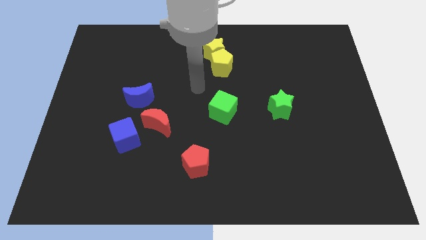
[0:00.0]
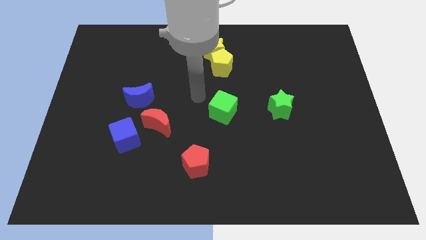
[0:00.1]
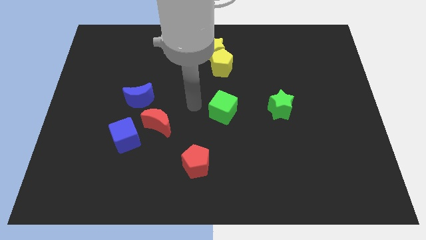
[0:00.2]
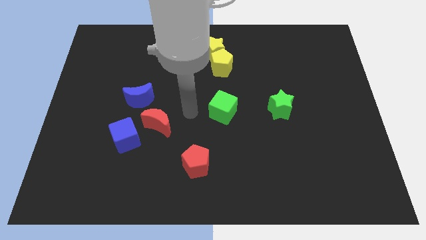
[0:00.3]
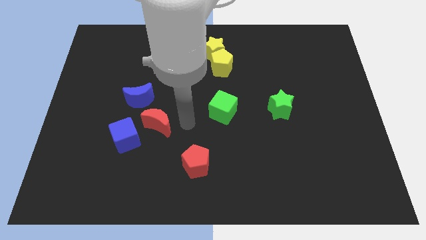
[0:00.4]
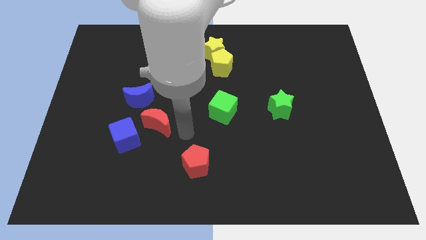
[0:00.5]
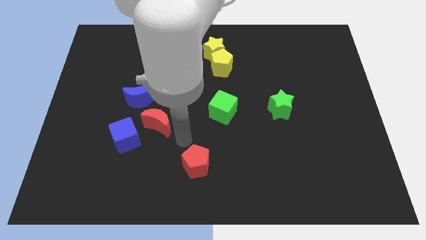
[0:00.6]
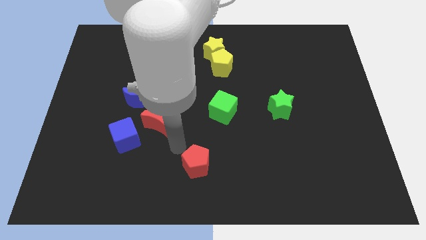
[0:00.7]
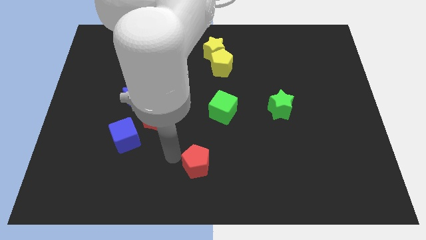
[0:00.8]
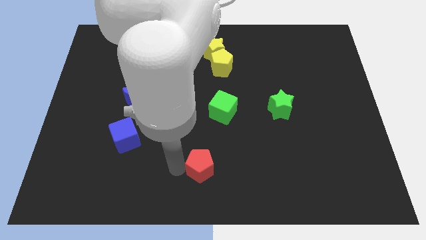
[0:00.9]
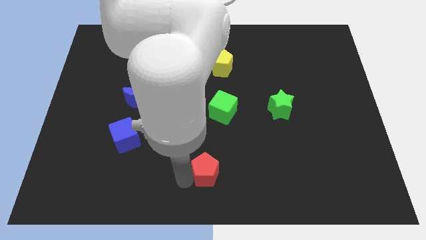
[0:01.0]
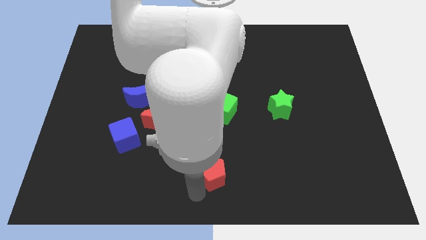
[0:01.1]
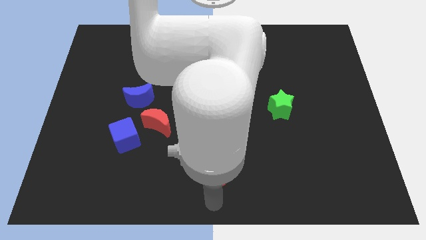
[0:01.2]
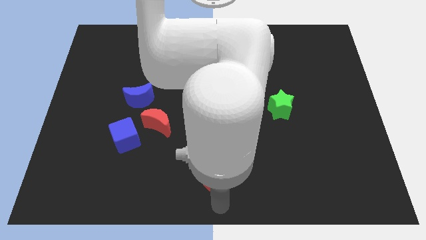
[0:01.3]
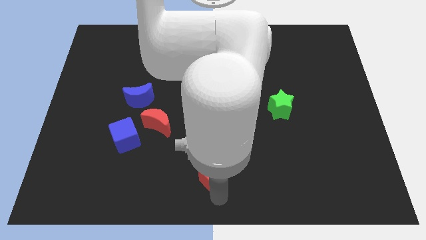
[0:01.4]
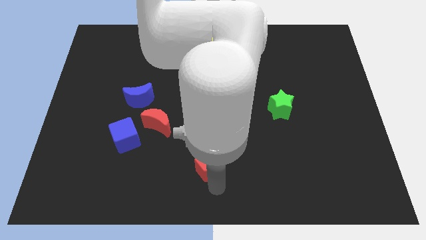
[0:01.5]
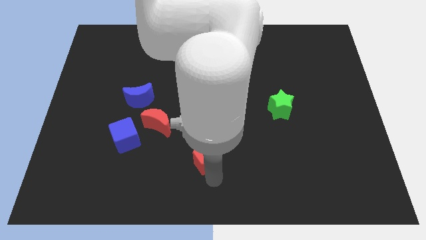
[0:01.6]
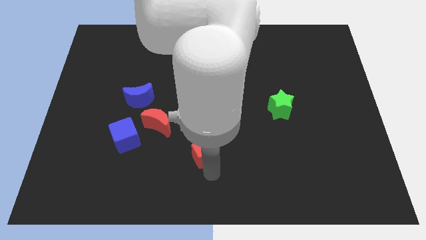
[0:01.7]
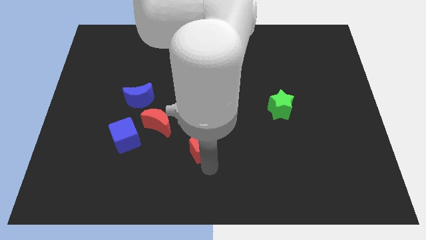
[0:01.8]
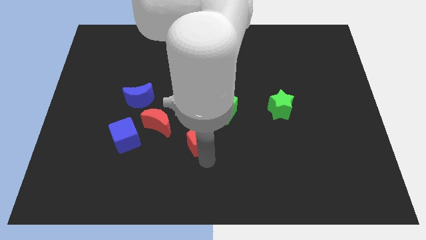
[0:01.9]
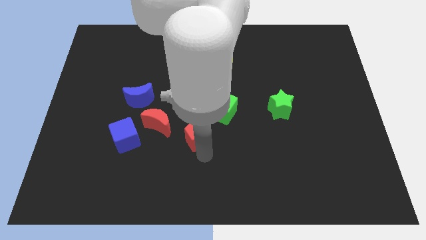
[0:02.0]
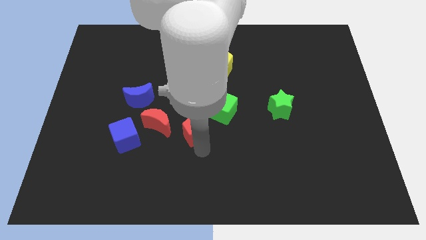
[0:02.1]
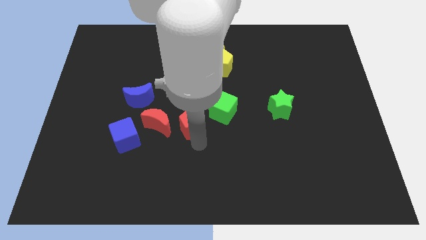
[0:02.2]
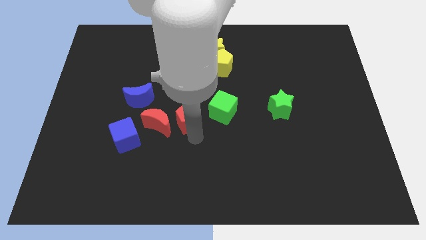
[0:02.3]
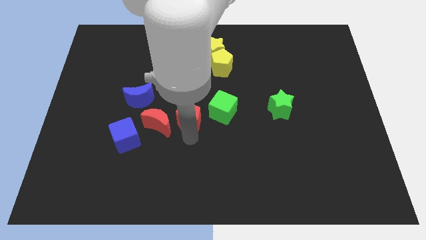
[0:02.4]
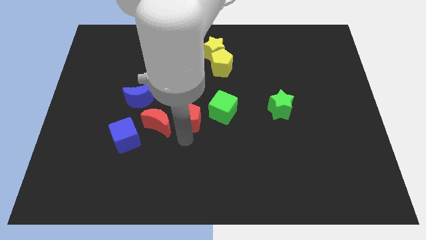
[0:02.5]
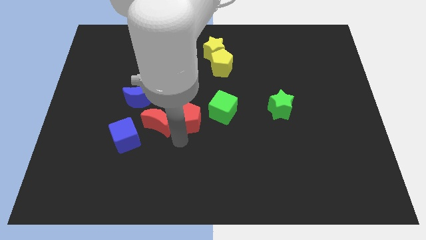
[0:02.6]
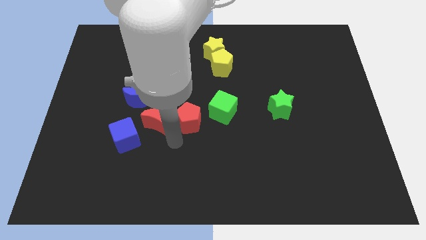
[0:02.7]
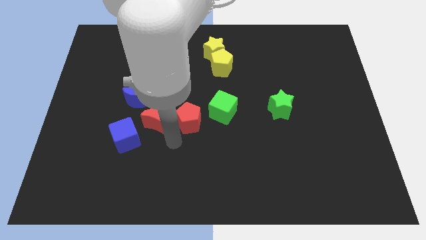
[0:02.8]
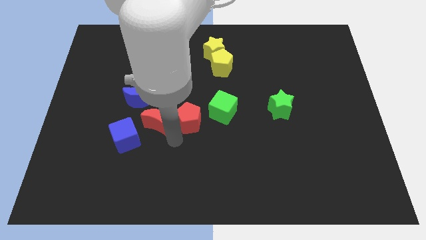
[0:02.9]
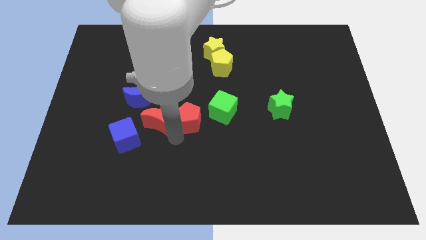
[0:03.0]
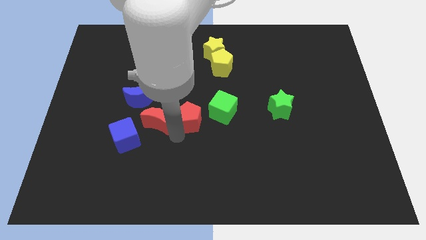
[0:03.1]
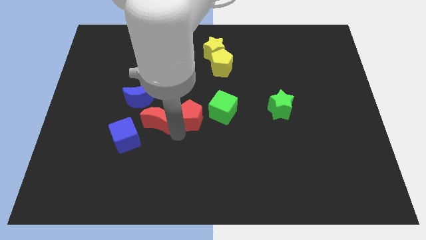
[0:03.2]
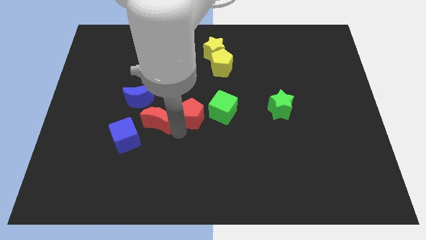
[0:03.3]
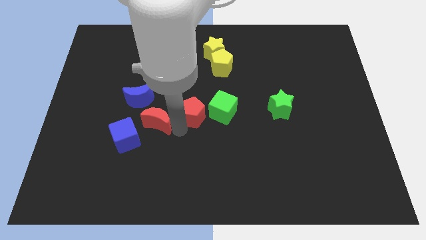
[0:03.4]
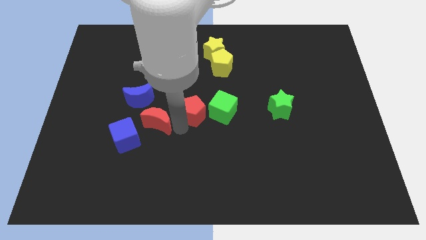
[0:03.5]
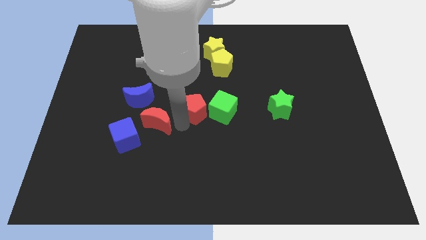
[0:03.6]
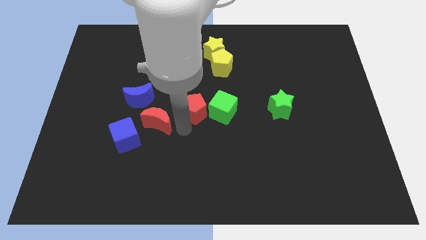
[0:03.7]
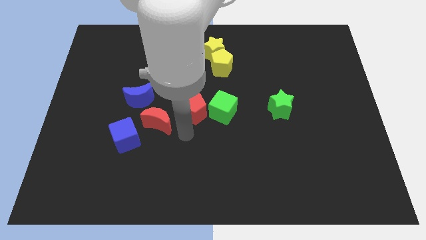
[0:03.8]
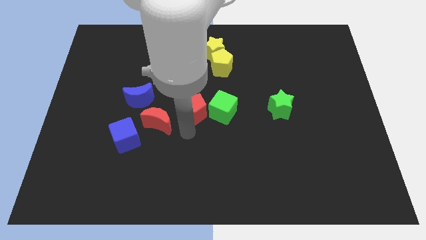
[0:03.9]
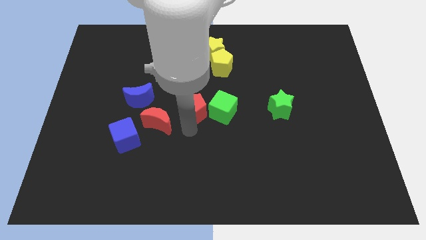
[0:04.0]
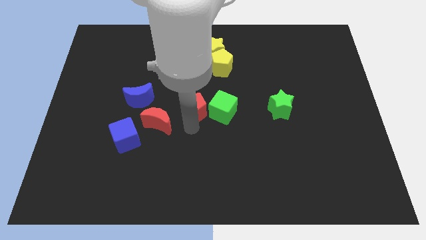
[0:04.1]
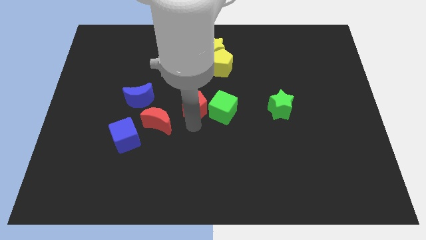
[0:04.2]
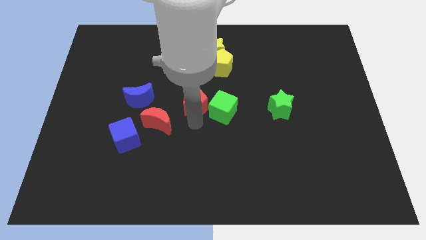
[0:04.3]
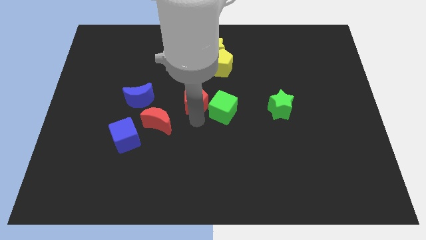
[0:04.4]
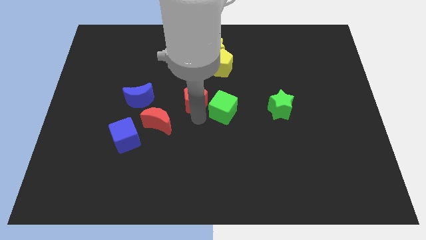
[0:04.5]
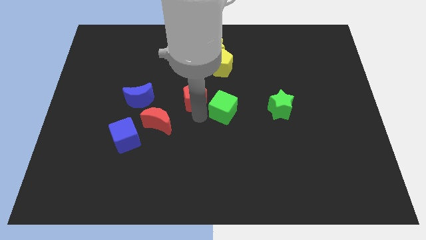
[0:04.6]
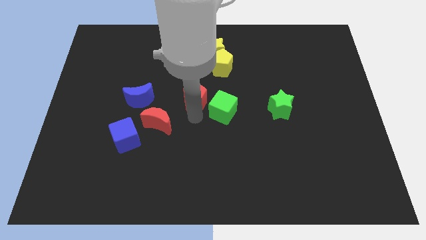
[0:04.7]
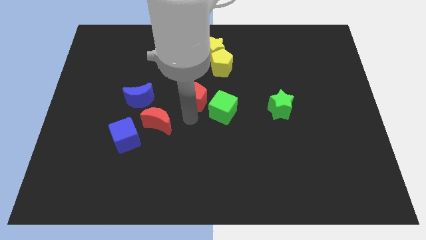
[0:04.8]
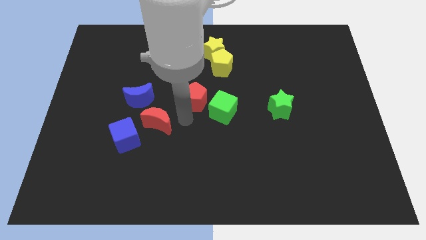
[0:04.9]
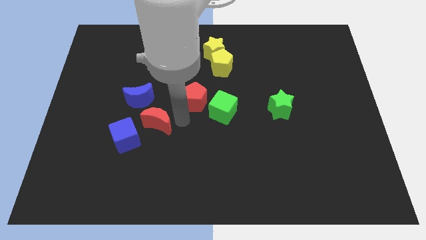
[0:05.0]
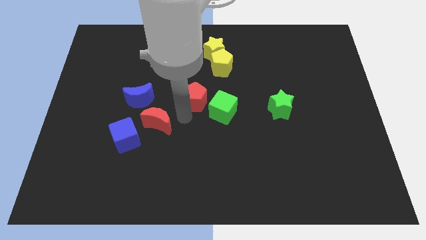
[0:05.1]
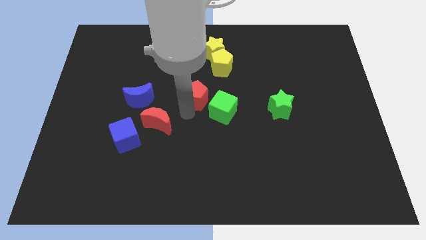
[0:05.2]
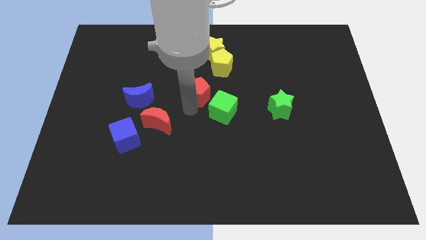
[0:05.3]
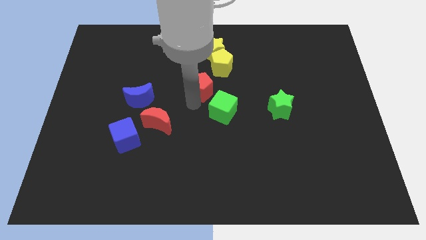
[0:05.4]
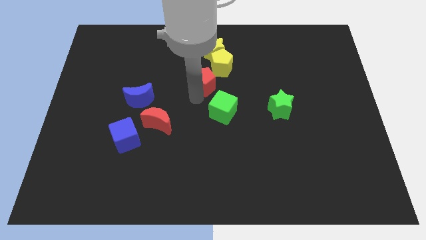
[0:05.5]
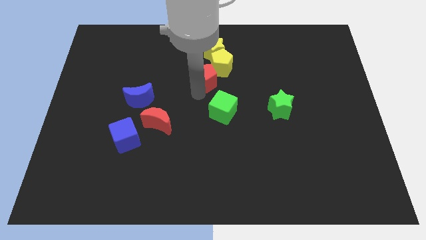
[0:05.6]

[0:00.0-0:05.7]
put the red pentagon to the yellow pentagon

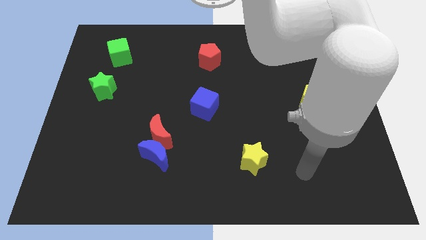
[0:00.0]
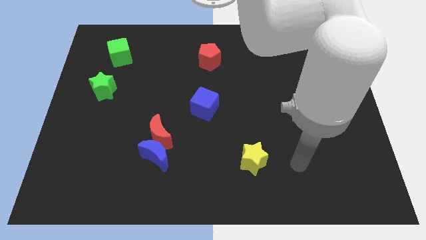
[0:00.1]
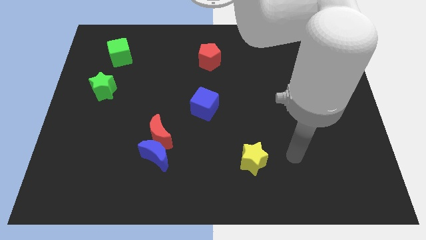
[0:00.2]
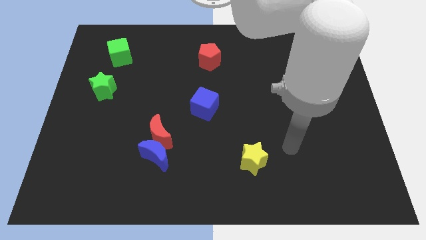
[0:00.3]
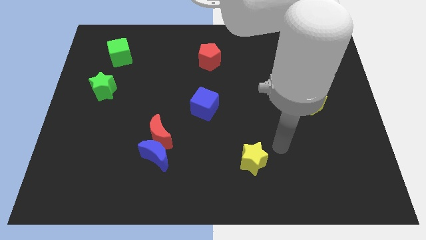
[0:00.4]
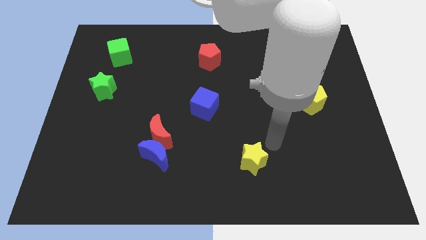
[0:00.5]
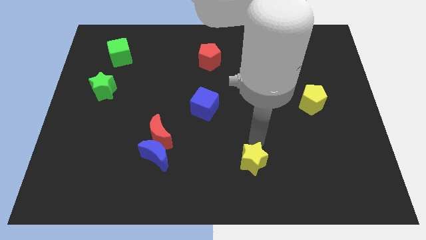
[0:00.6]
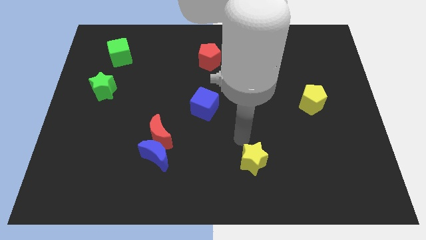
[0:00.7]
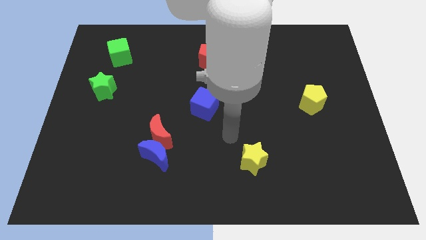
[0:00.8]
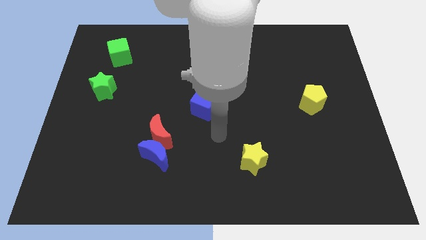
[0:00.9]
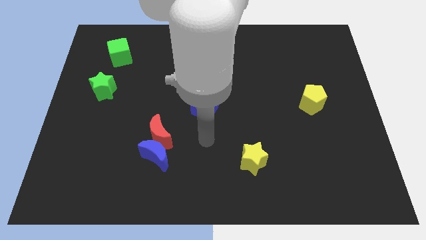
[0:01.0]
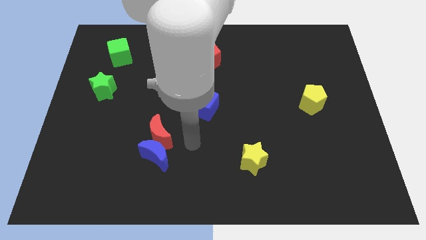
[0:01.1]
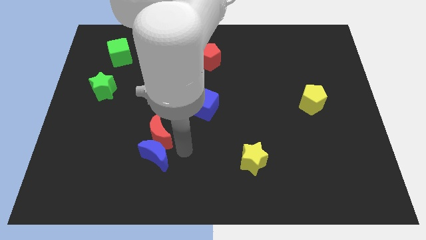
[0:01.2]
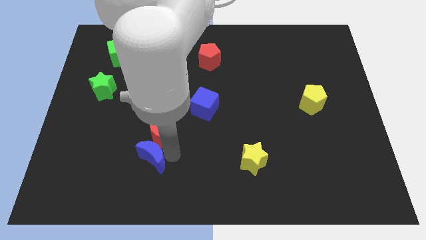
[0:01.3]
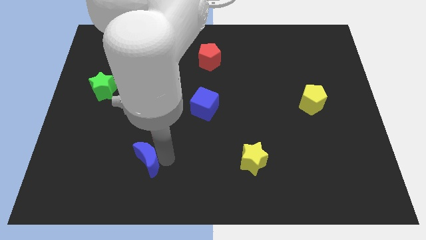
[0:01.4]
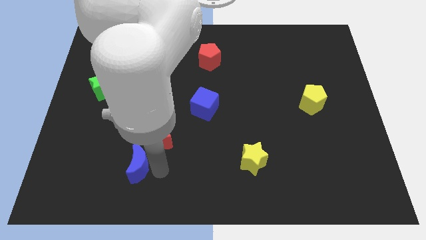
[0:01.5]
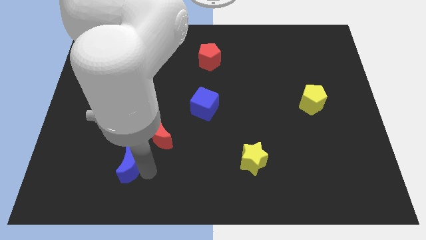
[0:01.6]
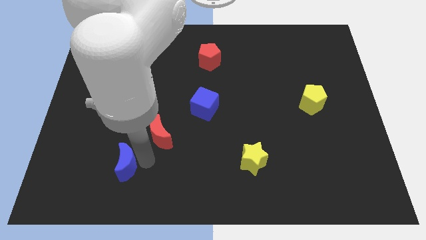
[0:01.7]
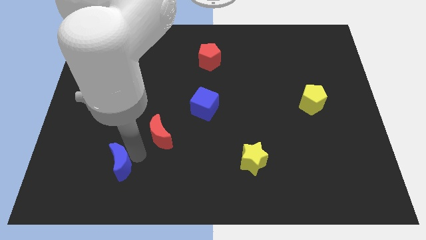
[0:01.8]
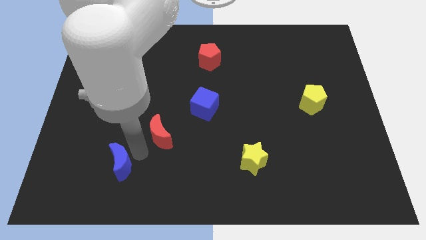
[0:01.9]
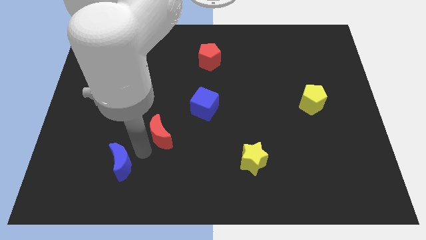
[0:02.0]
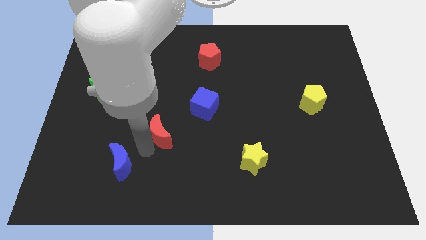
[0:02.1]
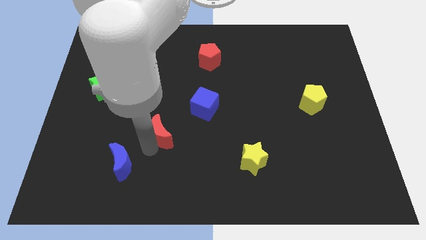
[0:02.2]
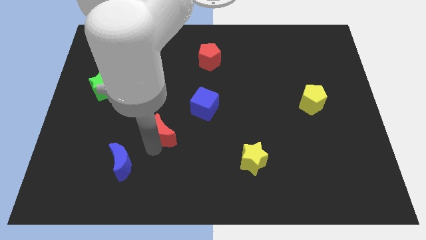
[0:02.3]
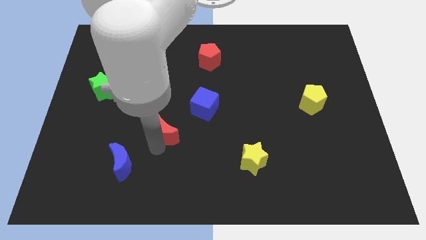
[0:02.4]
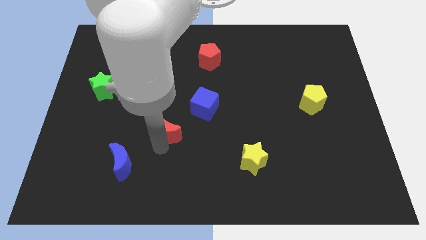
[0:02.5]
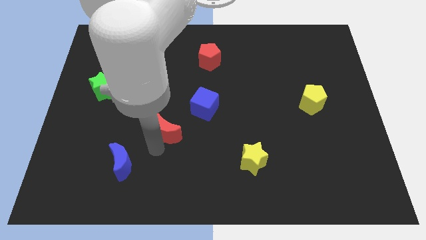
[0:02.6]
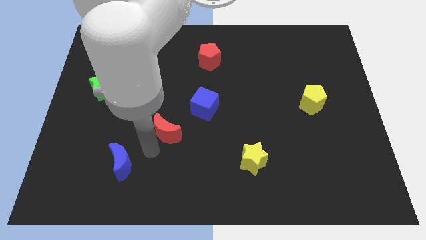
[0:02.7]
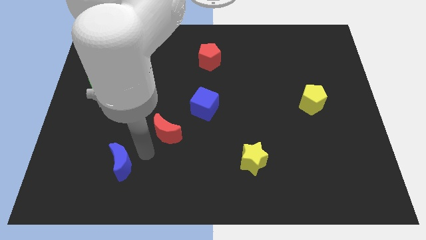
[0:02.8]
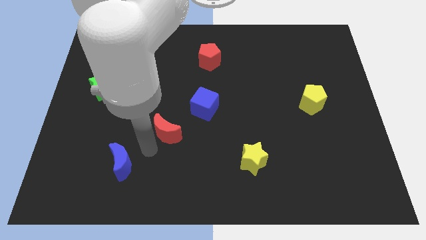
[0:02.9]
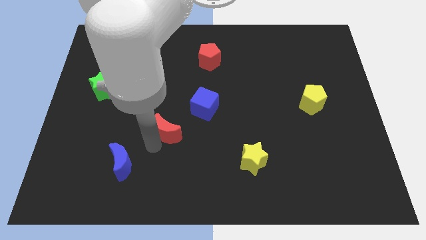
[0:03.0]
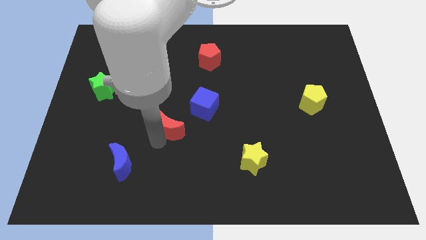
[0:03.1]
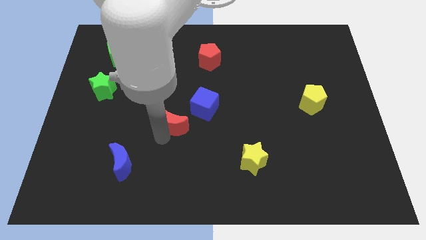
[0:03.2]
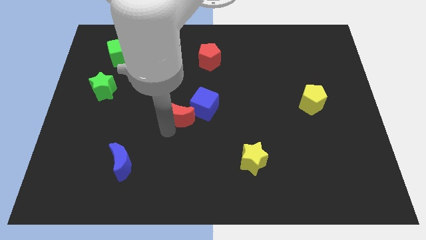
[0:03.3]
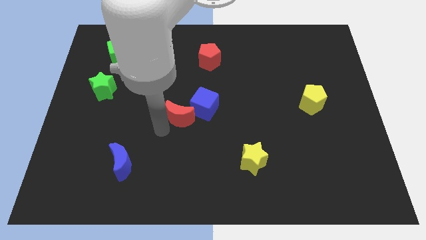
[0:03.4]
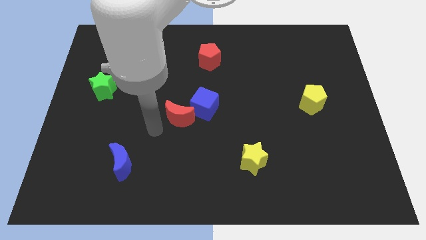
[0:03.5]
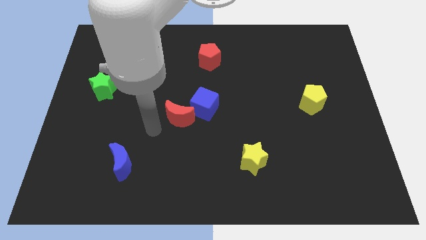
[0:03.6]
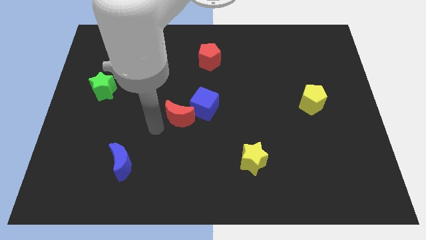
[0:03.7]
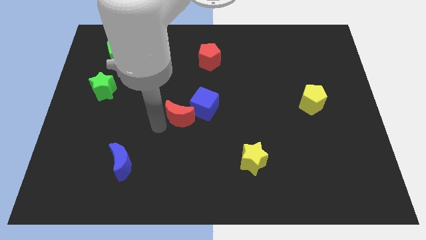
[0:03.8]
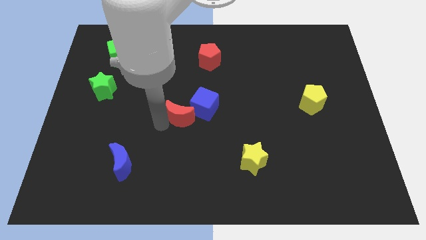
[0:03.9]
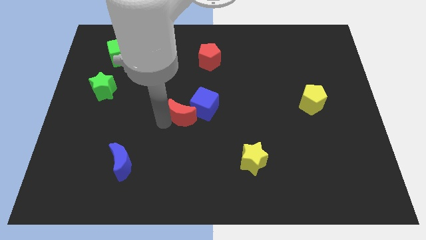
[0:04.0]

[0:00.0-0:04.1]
slide the red moon close to the blue cube
